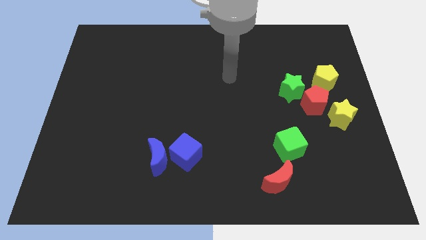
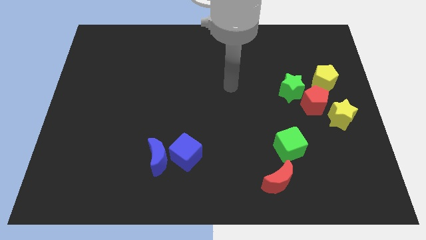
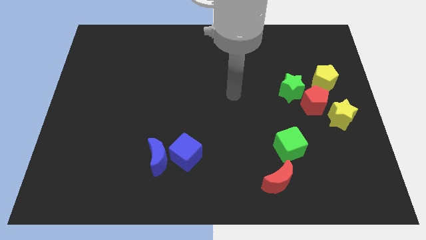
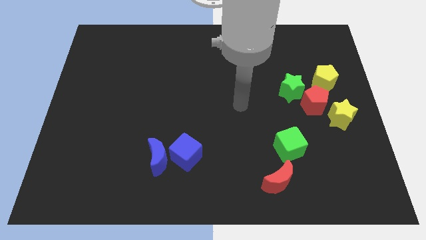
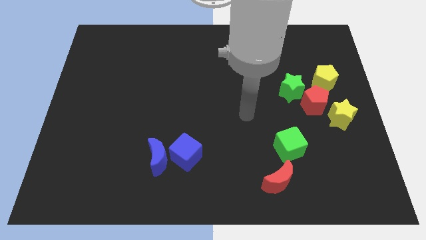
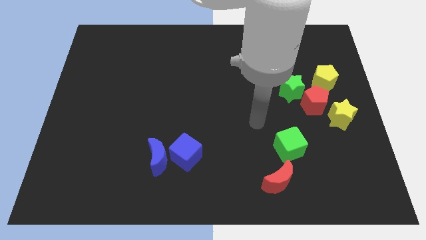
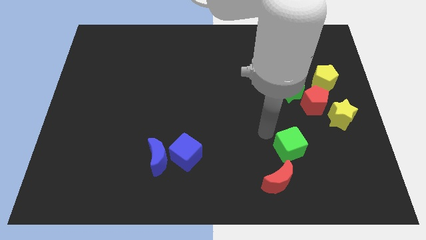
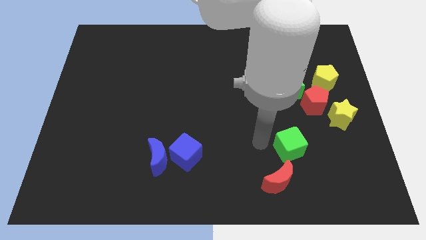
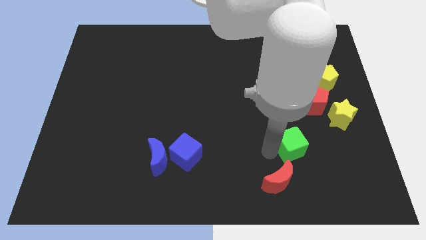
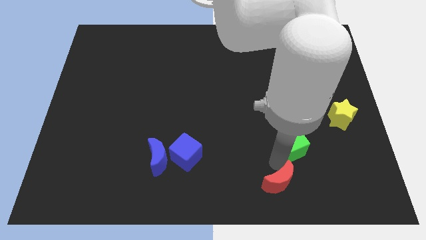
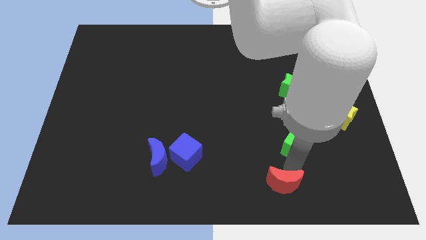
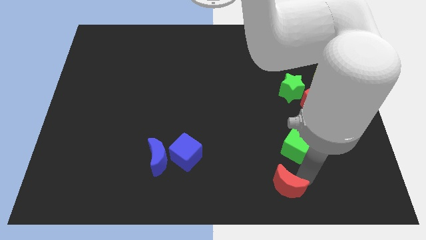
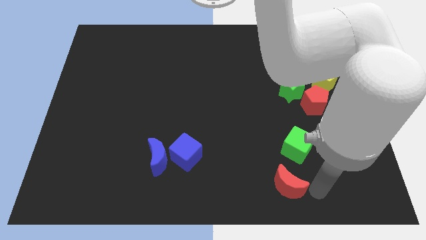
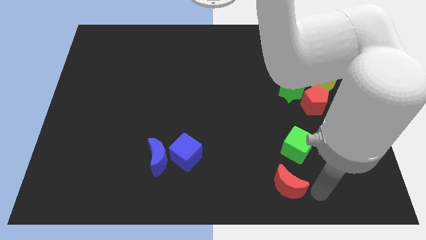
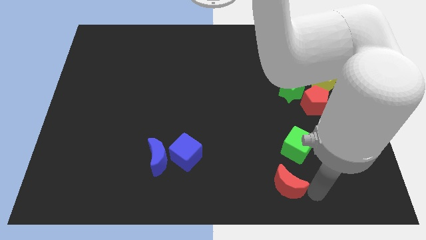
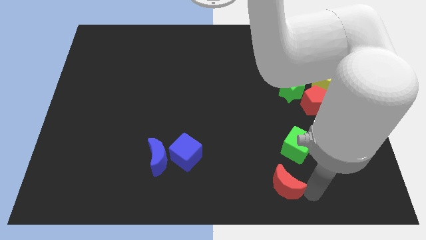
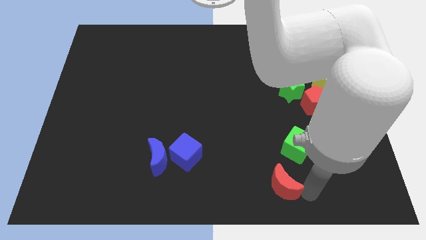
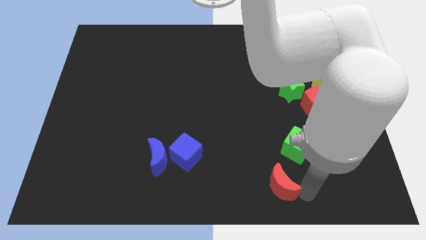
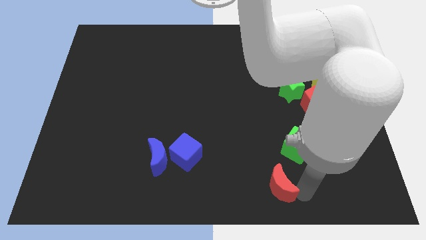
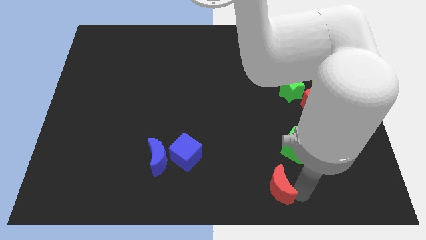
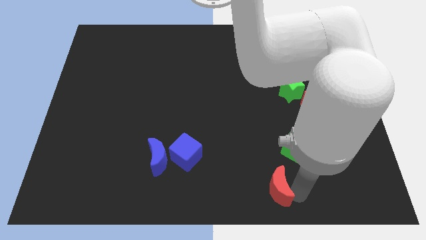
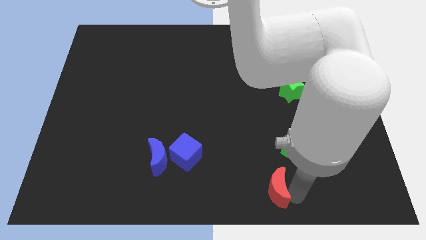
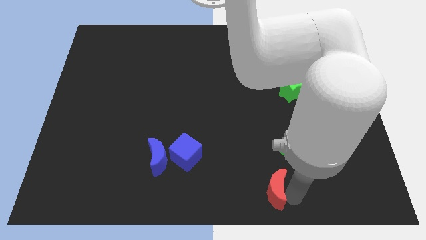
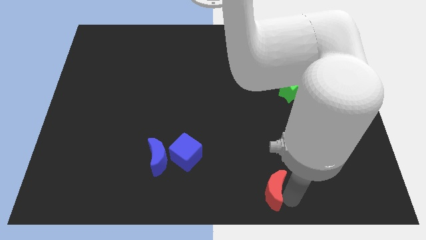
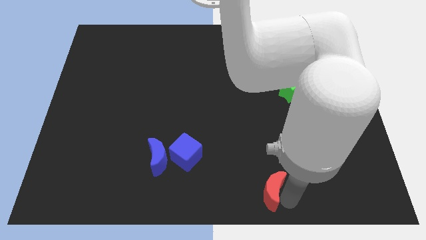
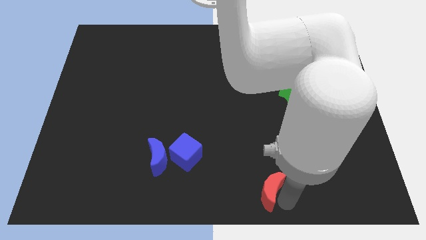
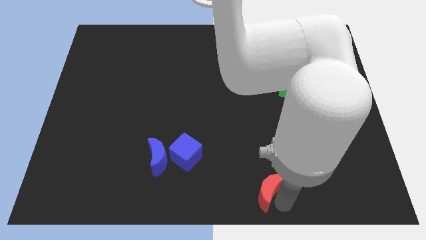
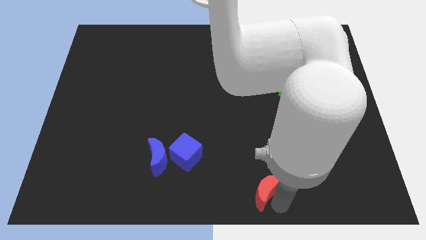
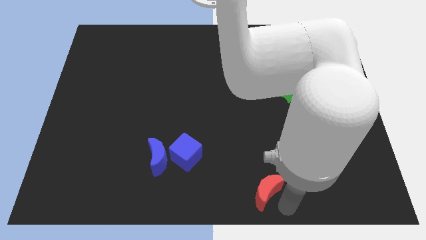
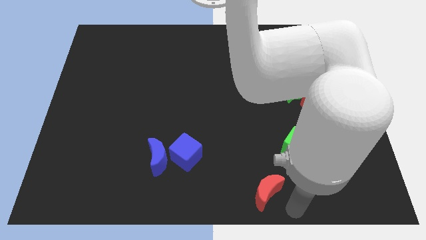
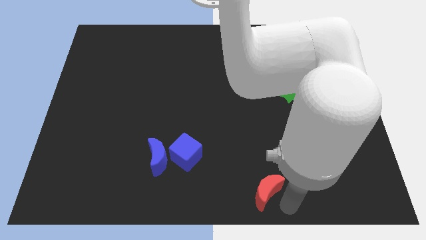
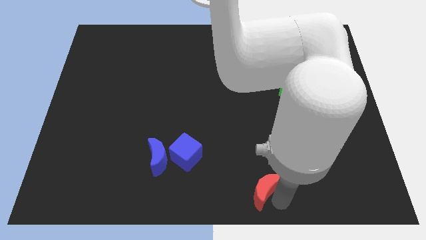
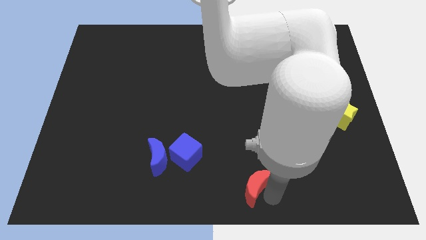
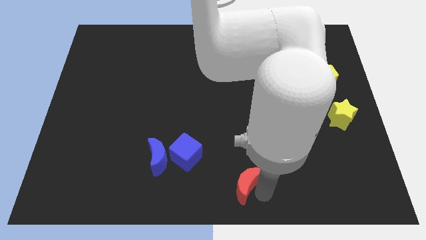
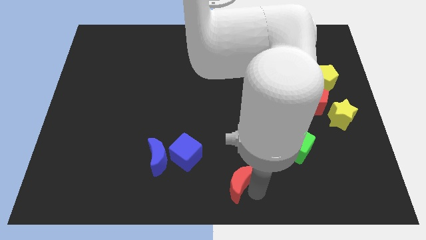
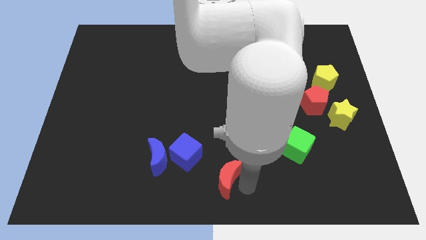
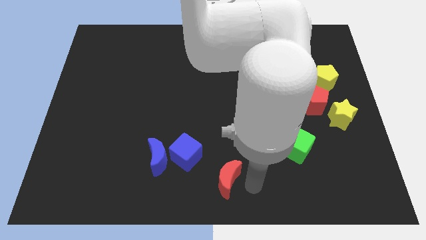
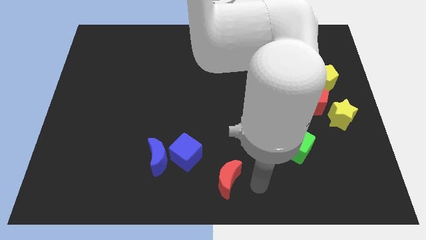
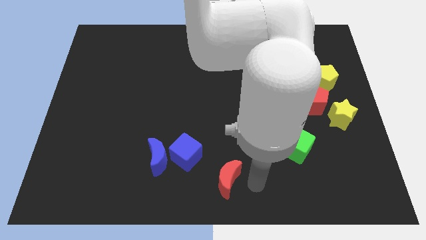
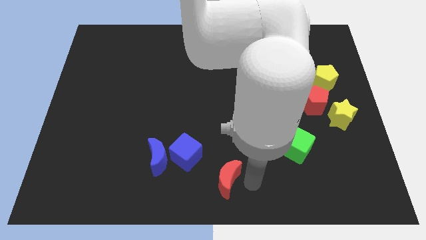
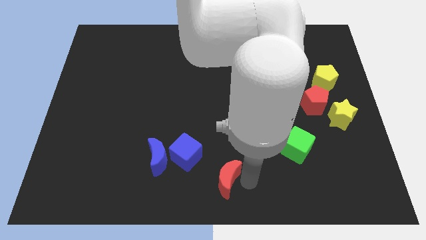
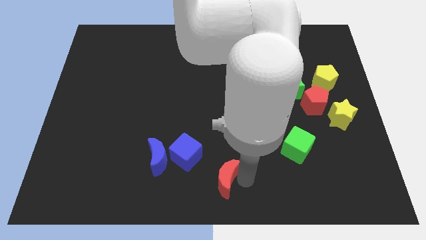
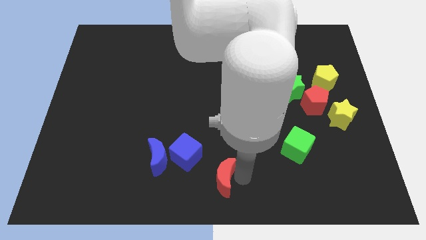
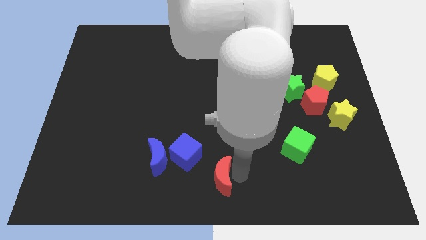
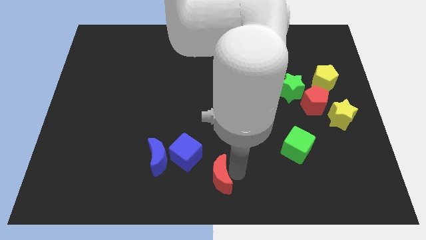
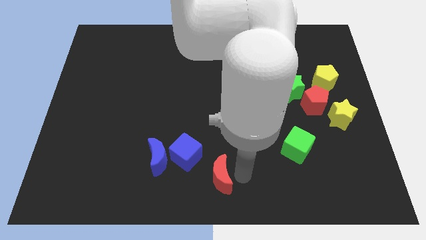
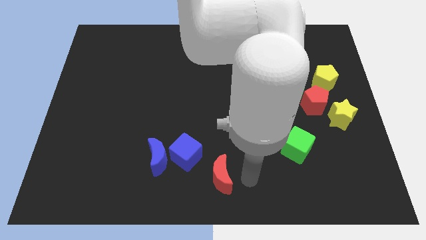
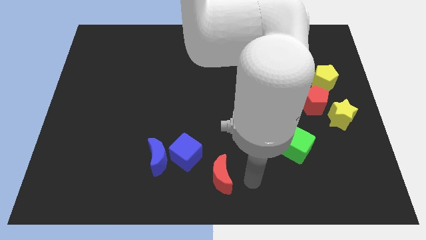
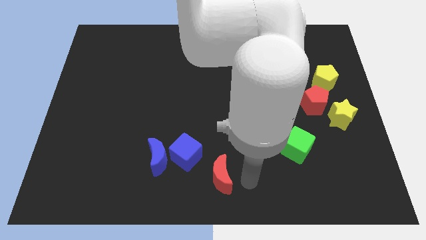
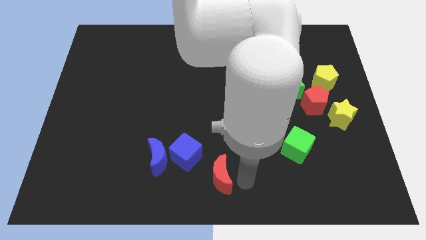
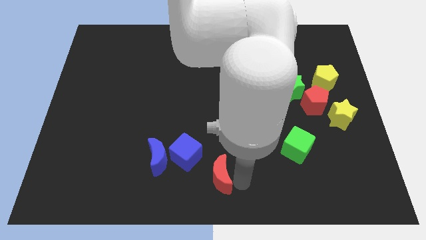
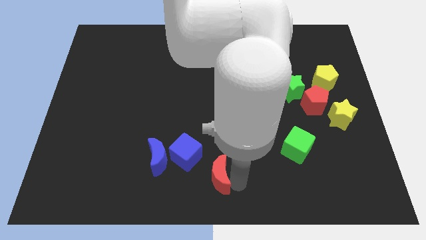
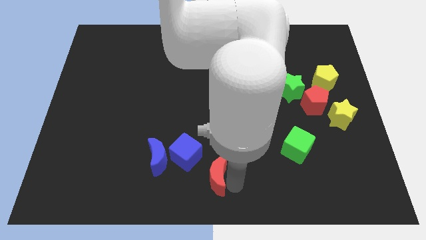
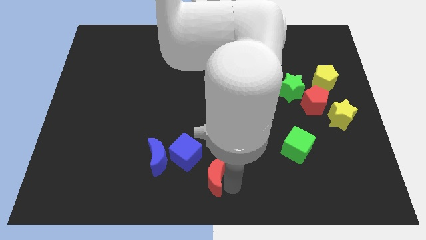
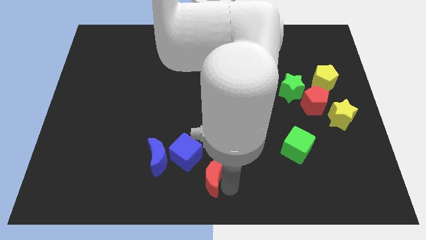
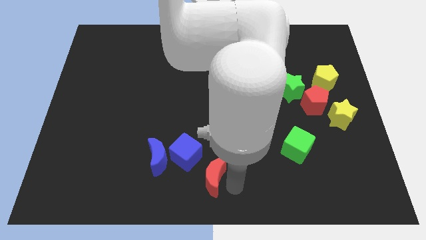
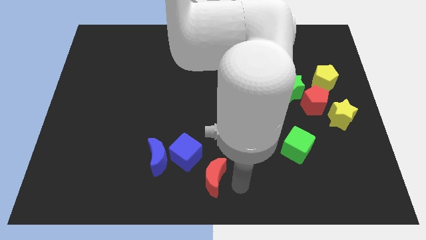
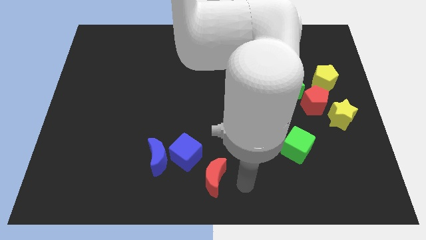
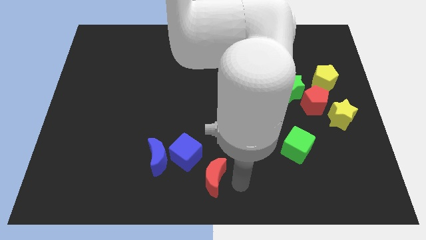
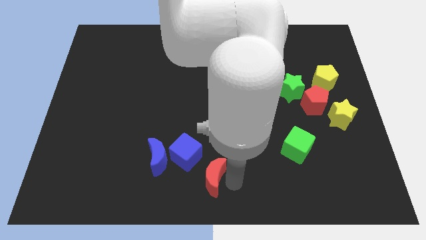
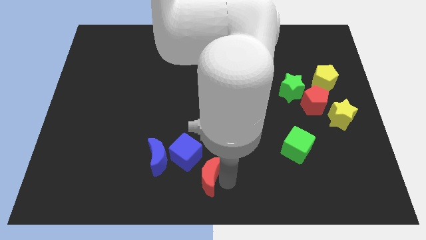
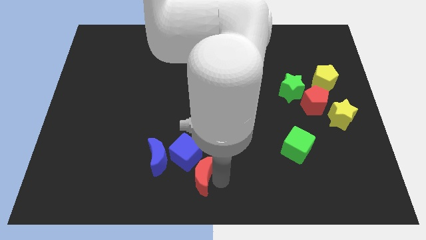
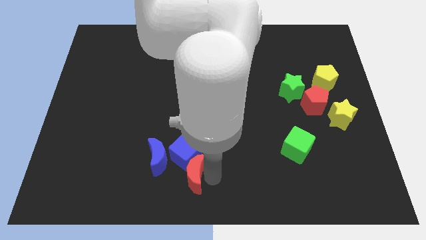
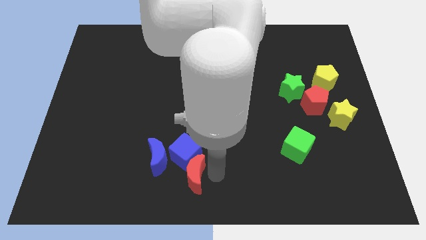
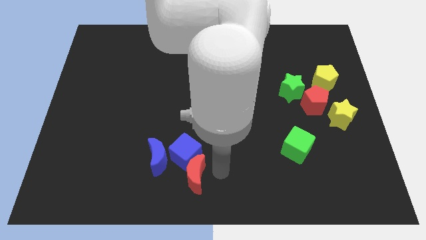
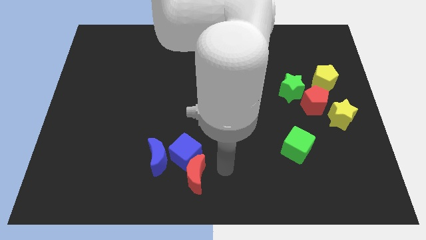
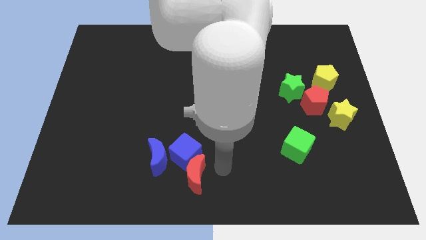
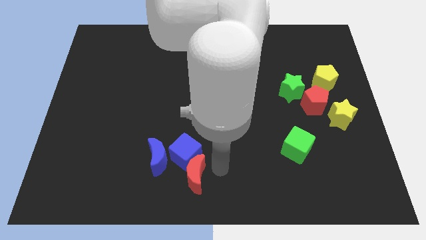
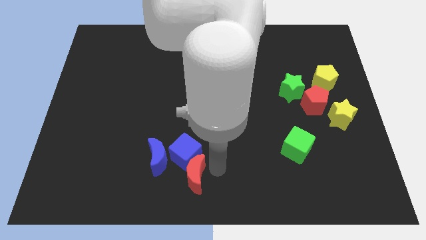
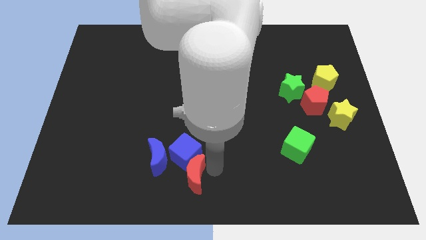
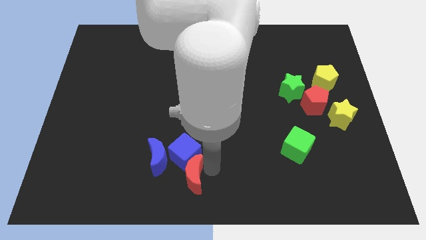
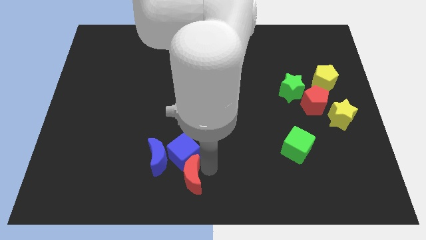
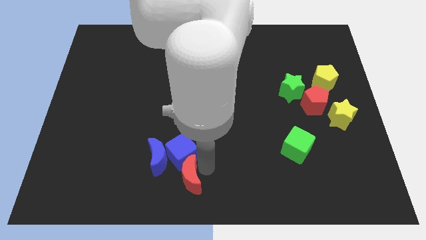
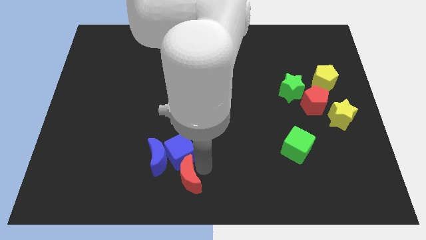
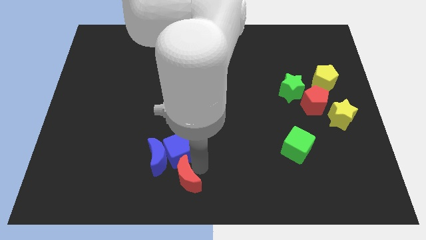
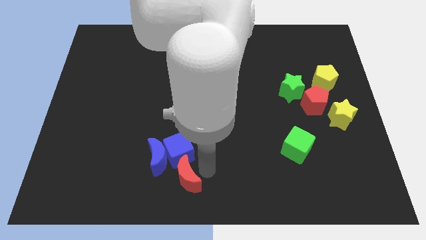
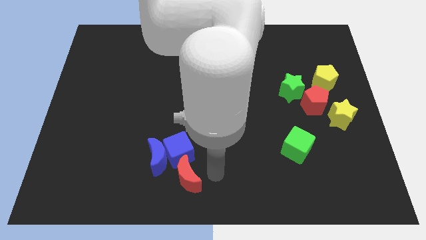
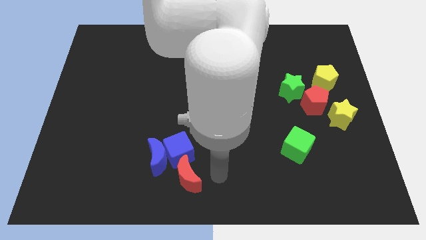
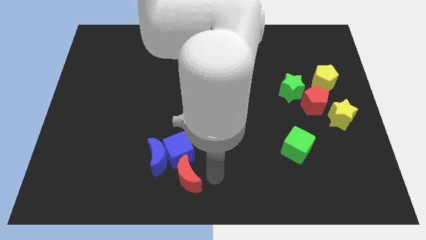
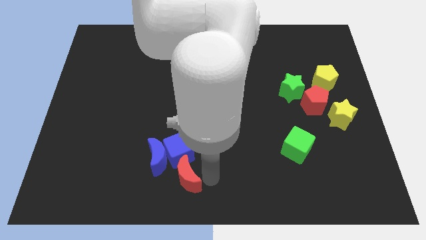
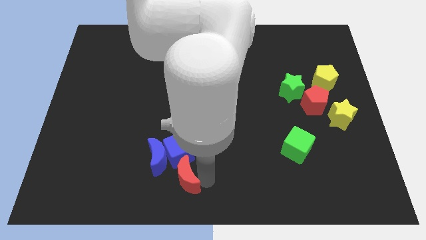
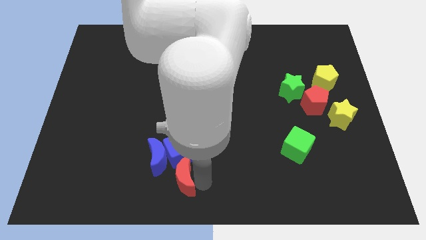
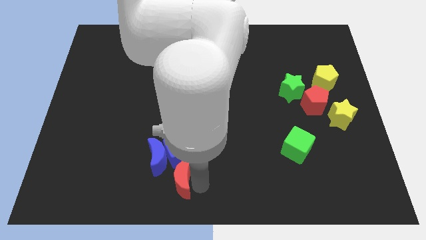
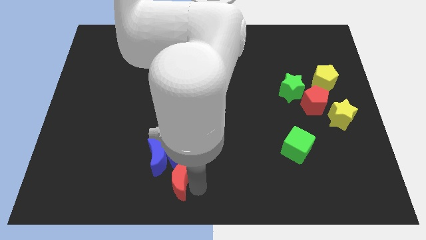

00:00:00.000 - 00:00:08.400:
slide the red moon to the left
